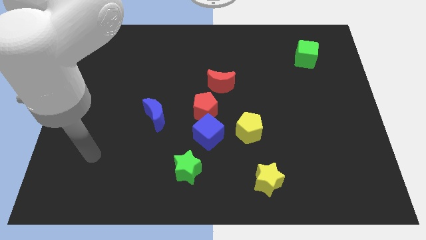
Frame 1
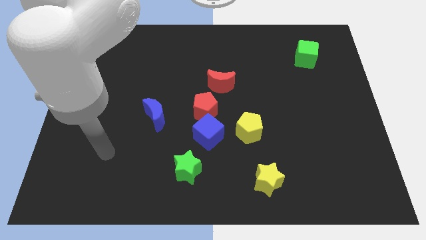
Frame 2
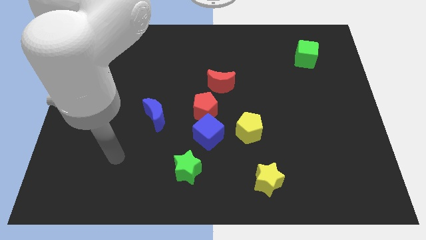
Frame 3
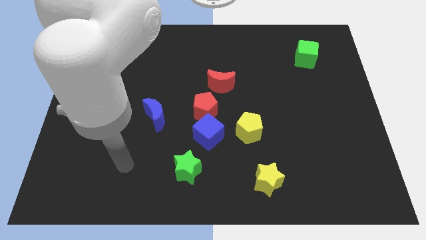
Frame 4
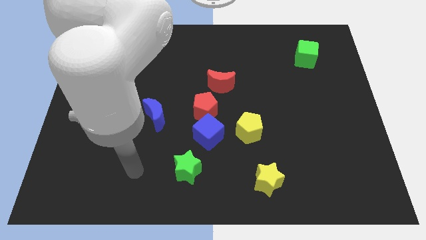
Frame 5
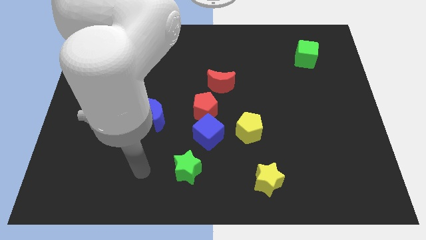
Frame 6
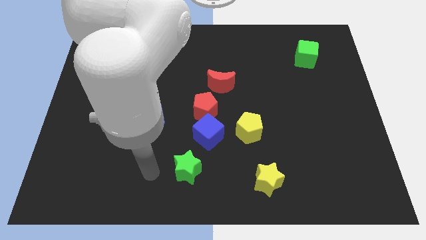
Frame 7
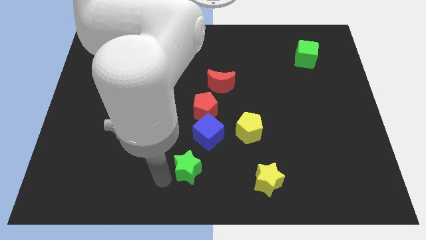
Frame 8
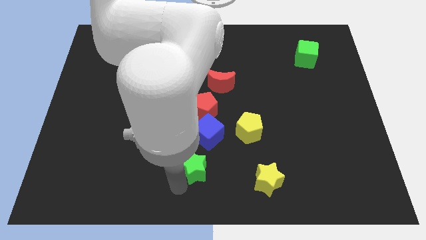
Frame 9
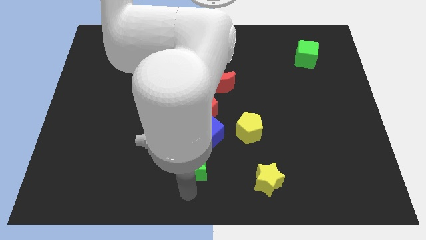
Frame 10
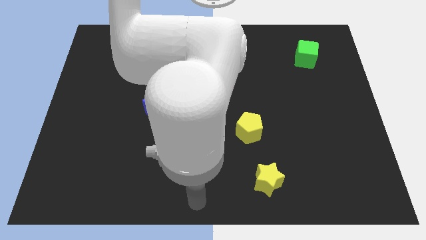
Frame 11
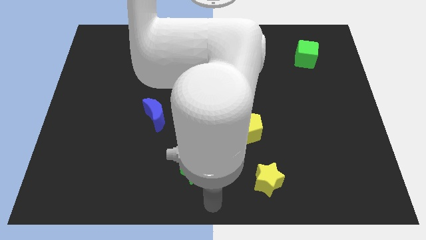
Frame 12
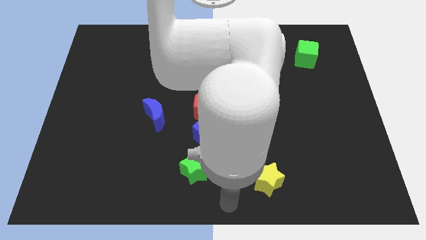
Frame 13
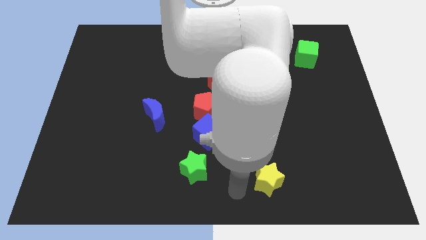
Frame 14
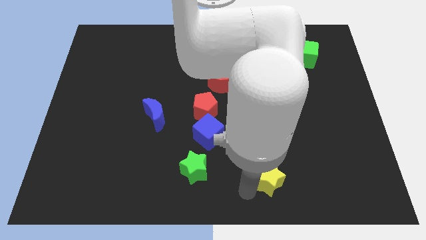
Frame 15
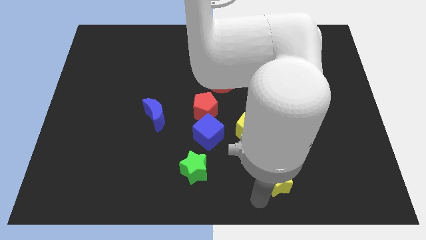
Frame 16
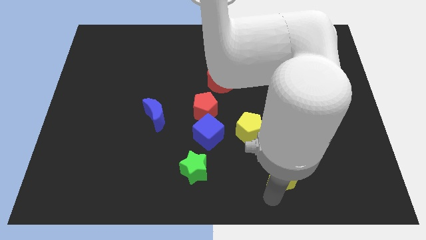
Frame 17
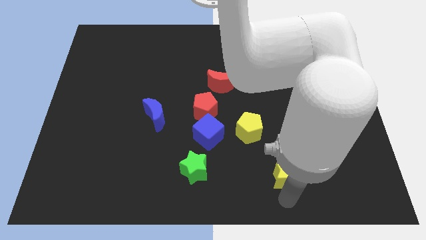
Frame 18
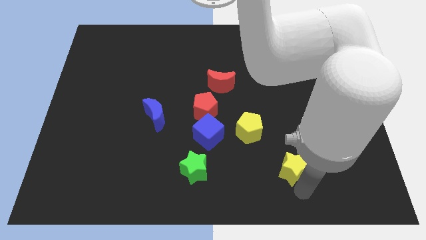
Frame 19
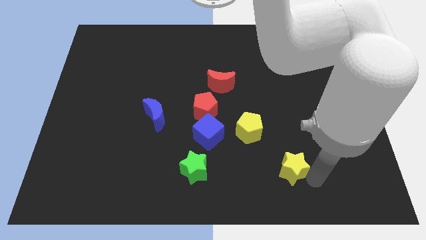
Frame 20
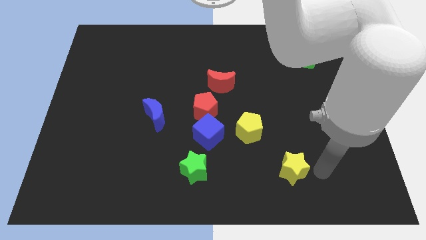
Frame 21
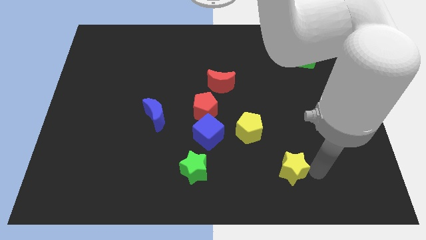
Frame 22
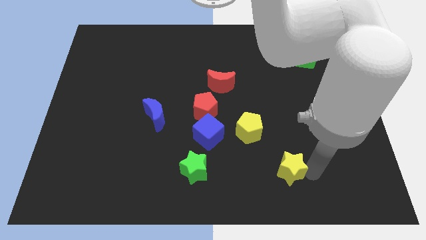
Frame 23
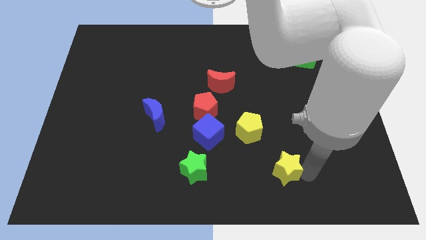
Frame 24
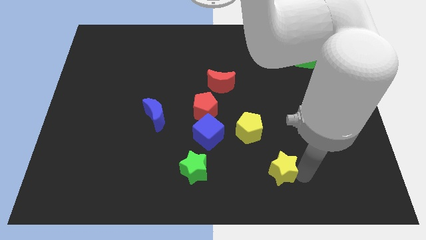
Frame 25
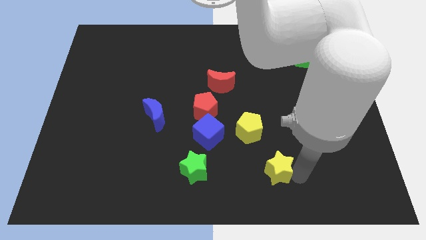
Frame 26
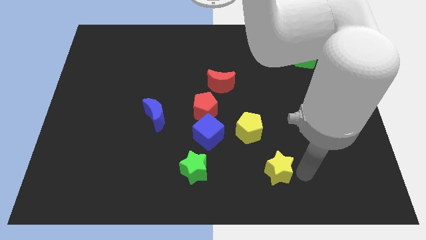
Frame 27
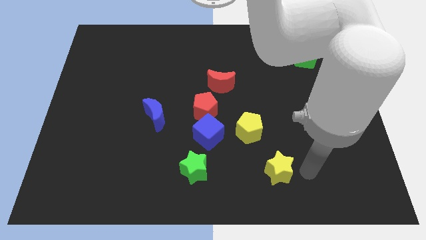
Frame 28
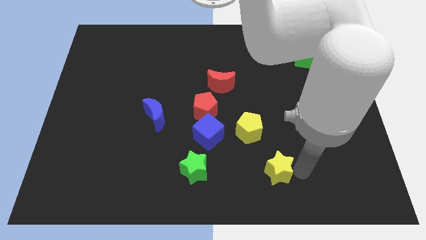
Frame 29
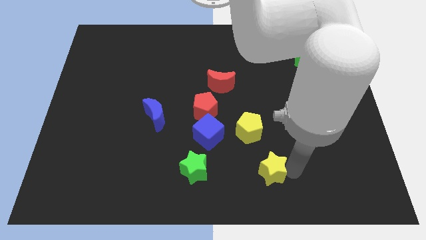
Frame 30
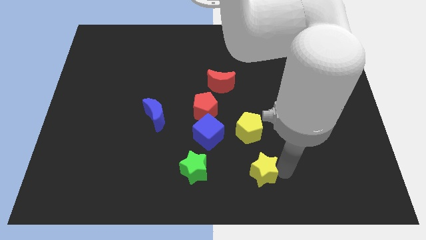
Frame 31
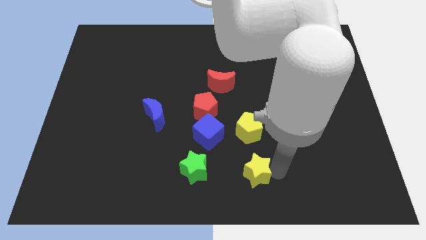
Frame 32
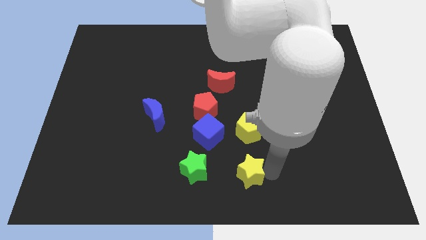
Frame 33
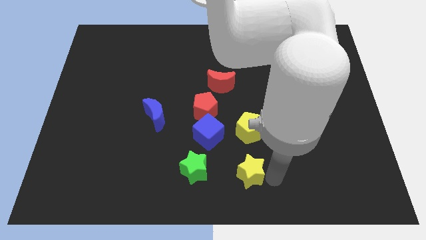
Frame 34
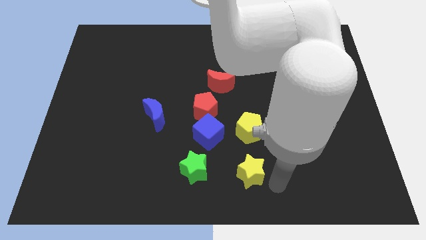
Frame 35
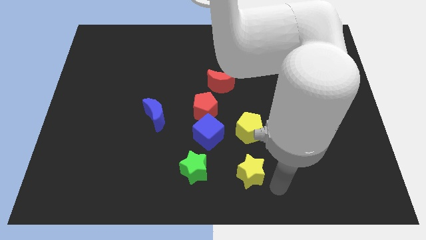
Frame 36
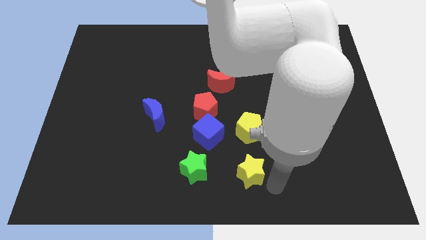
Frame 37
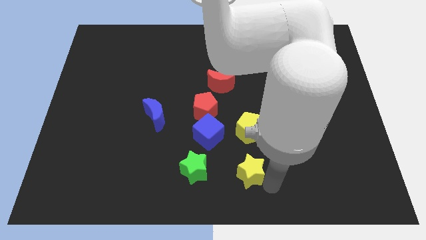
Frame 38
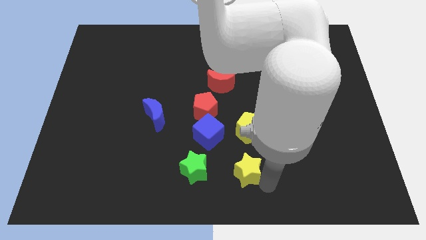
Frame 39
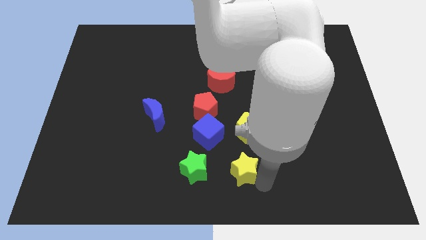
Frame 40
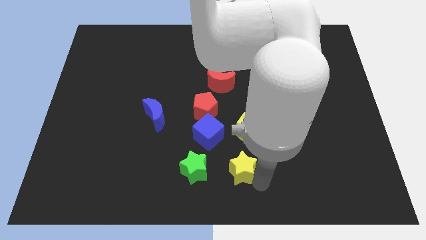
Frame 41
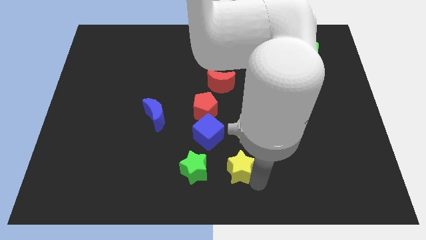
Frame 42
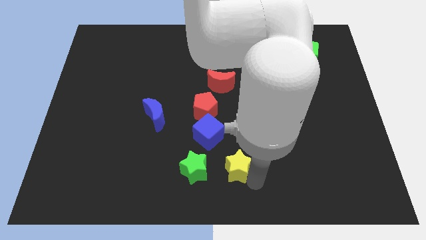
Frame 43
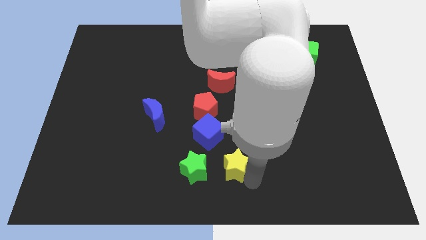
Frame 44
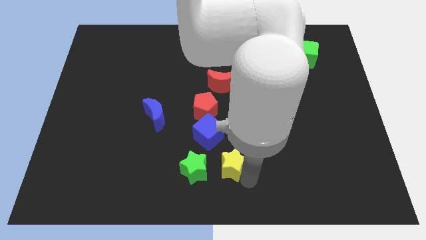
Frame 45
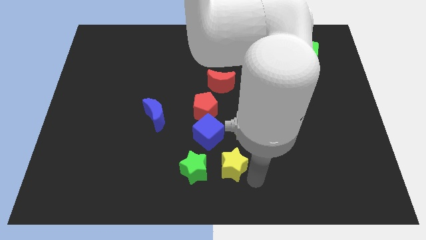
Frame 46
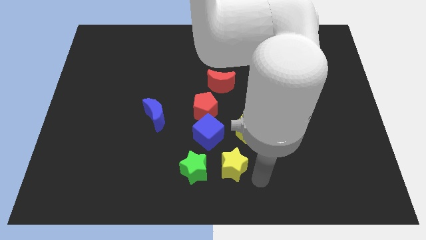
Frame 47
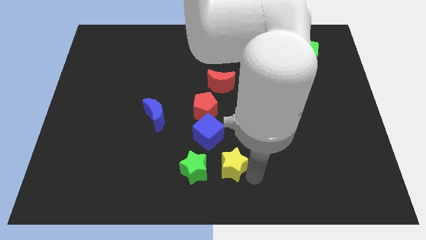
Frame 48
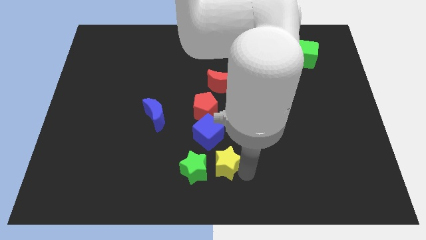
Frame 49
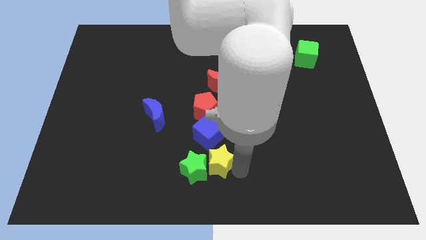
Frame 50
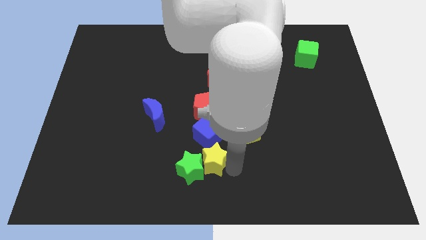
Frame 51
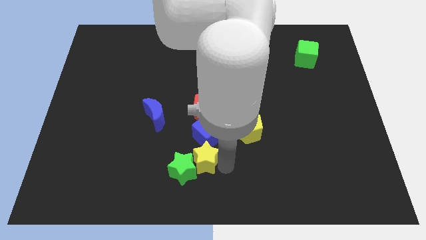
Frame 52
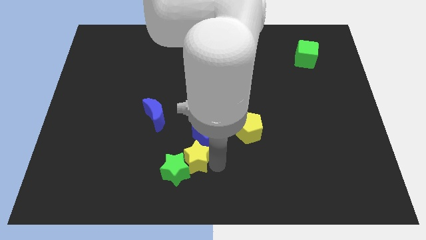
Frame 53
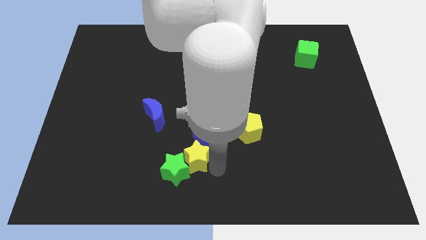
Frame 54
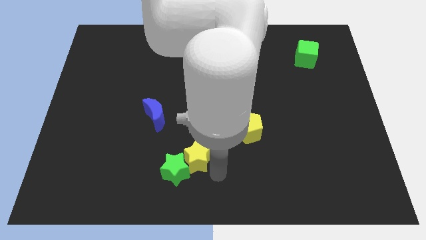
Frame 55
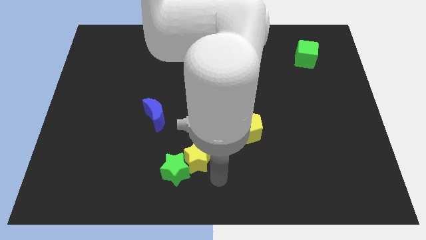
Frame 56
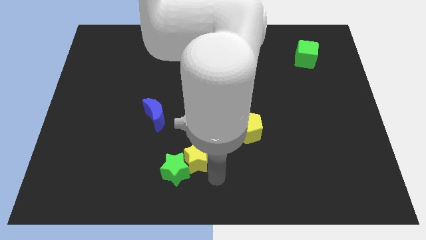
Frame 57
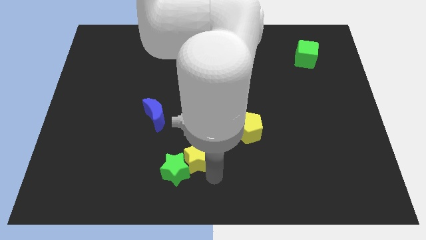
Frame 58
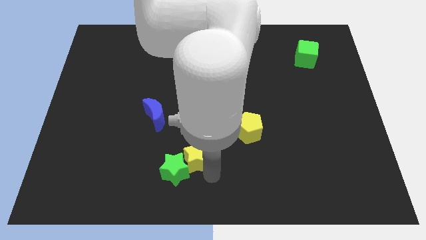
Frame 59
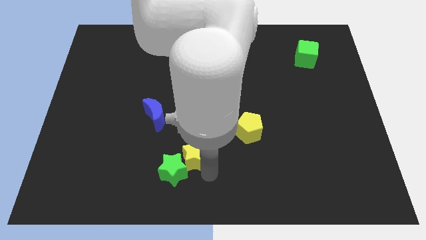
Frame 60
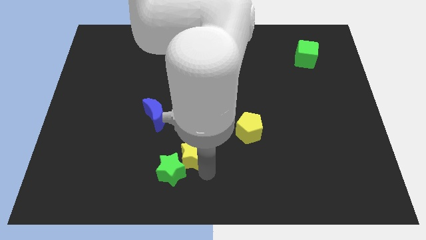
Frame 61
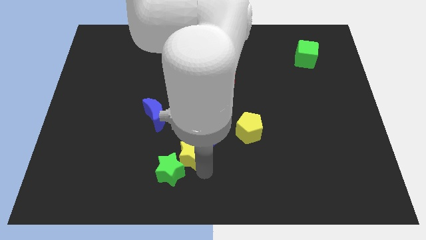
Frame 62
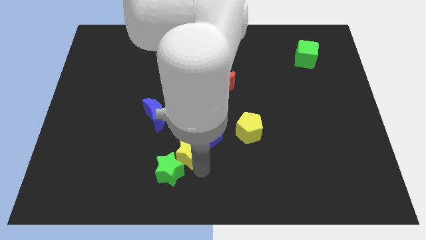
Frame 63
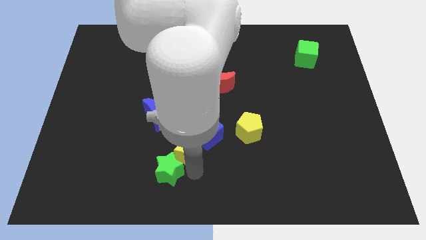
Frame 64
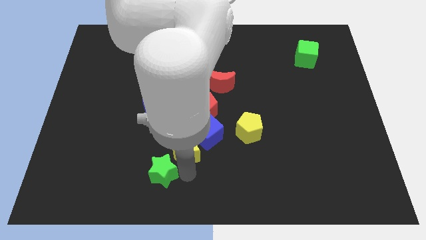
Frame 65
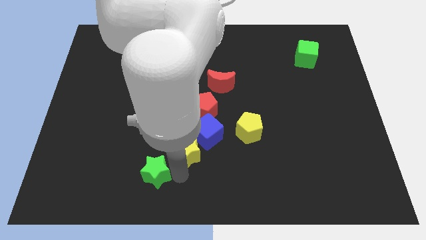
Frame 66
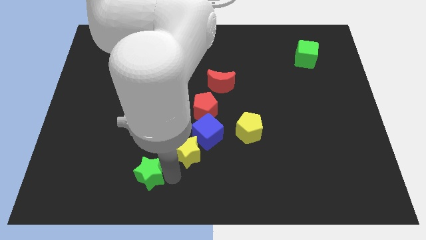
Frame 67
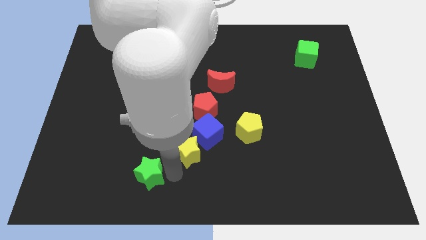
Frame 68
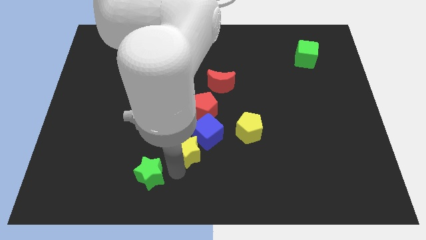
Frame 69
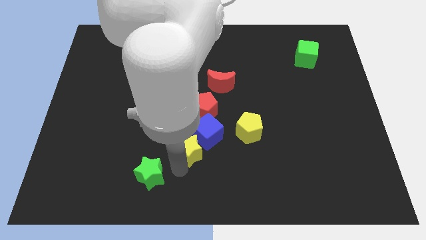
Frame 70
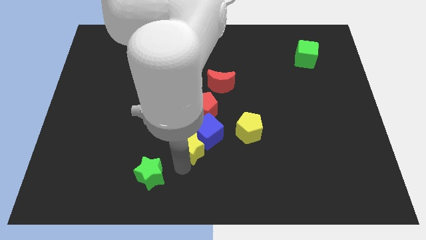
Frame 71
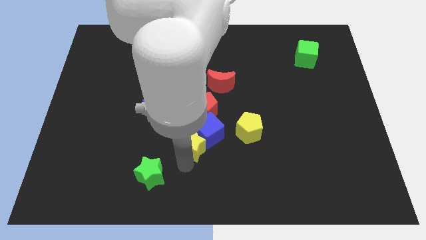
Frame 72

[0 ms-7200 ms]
move the yellow star to the left of the yellow pentagon
